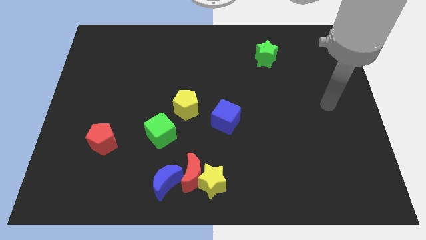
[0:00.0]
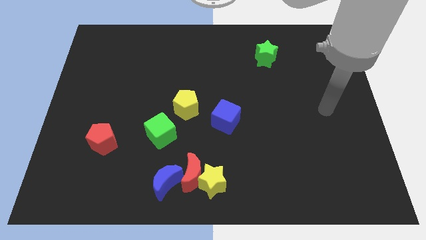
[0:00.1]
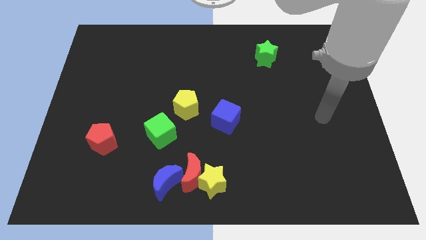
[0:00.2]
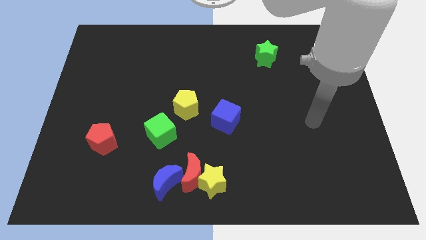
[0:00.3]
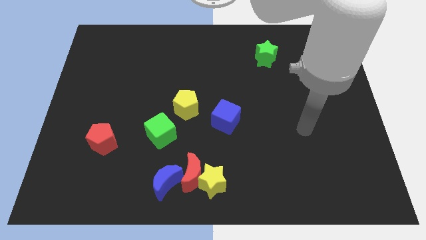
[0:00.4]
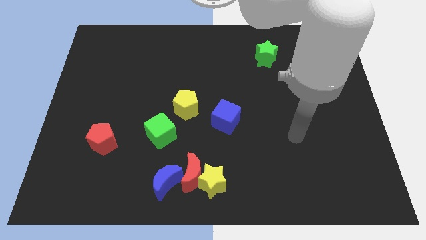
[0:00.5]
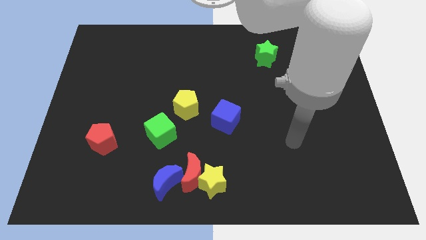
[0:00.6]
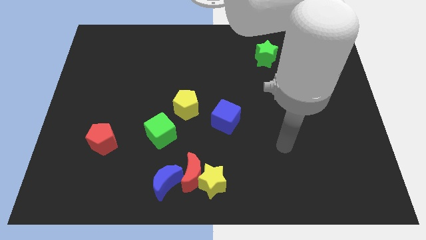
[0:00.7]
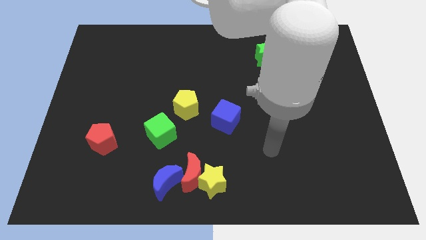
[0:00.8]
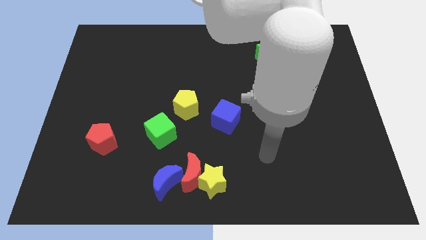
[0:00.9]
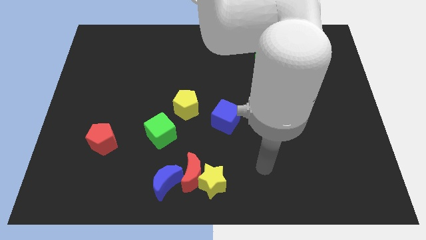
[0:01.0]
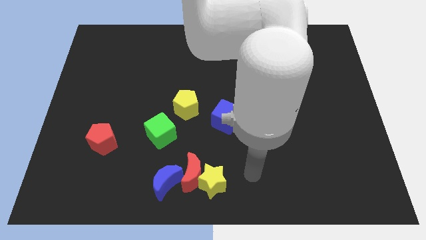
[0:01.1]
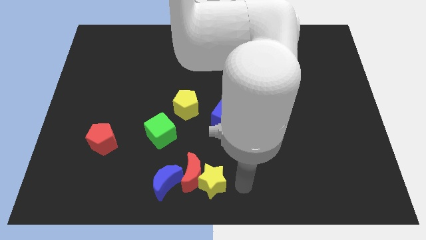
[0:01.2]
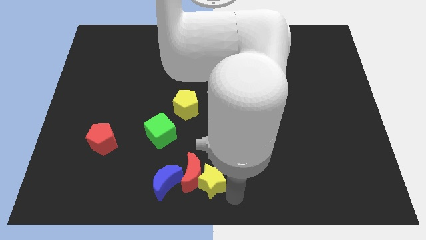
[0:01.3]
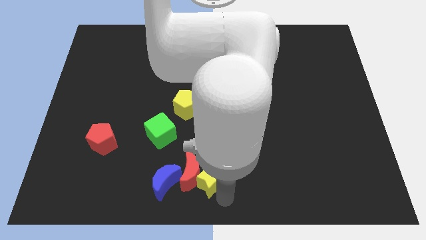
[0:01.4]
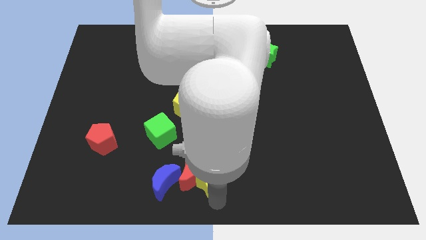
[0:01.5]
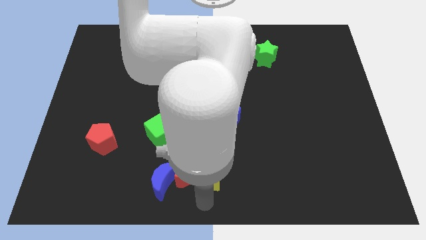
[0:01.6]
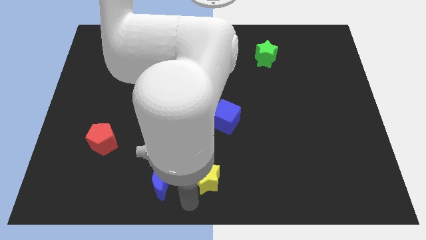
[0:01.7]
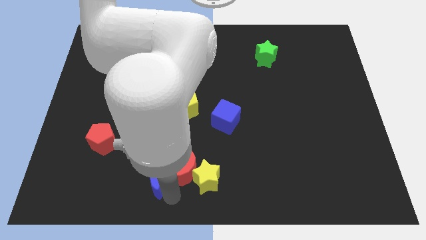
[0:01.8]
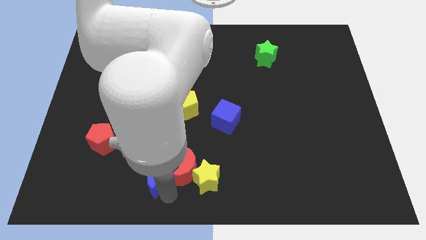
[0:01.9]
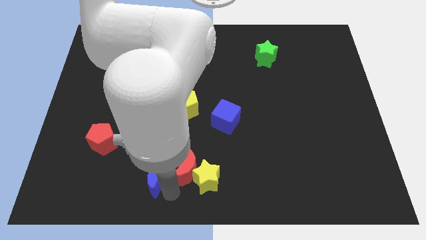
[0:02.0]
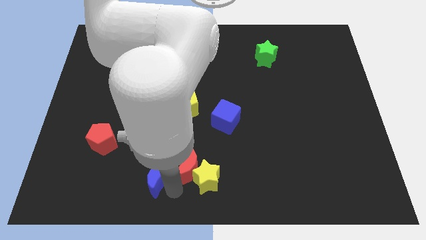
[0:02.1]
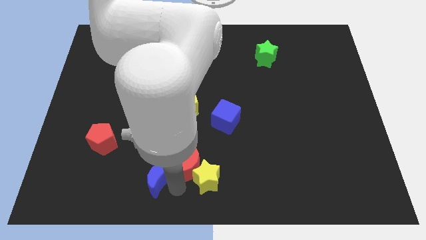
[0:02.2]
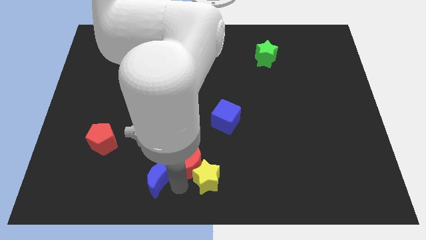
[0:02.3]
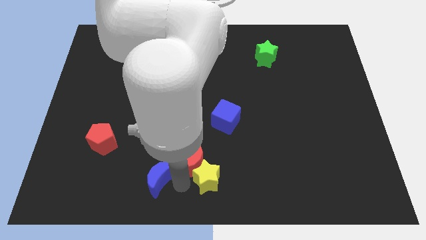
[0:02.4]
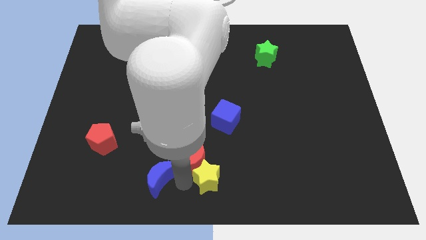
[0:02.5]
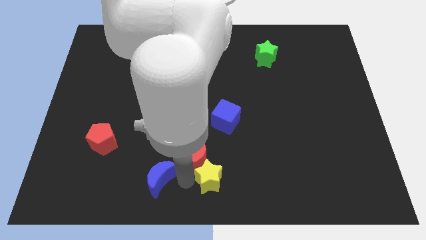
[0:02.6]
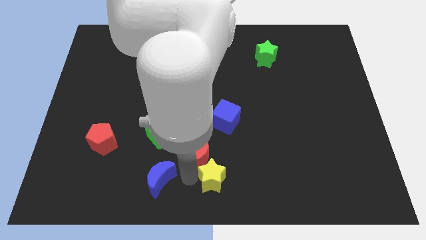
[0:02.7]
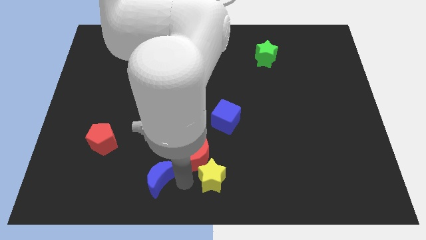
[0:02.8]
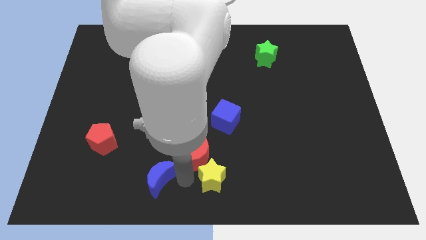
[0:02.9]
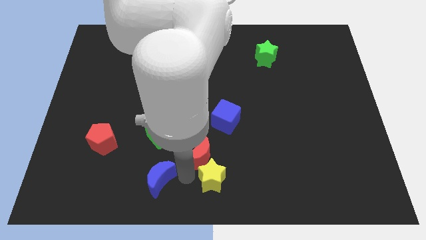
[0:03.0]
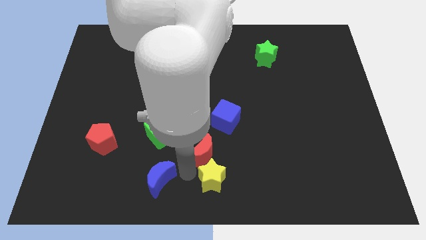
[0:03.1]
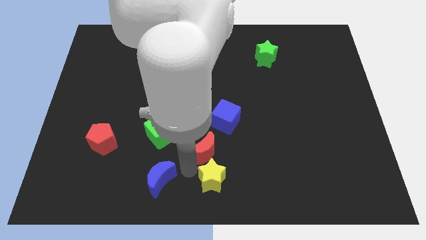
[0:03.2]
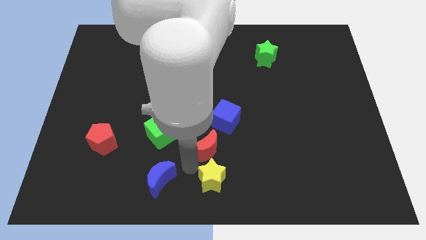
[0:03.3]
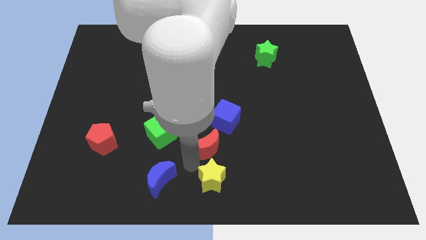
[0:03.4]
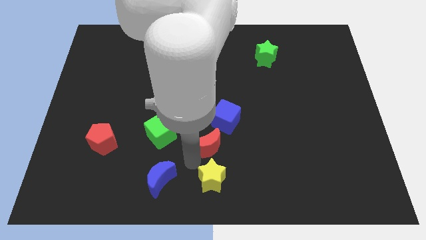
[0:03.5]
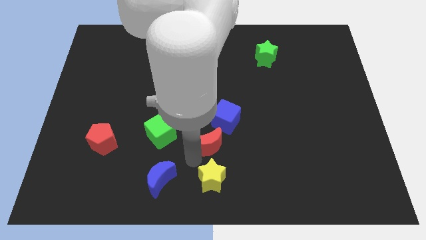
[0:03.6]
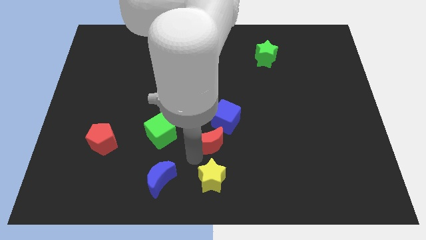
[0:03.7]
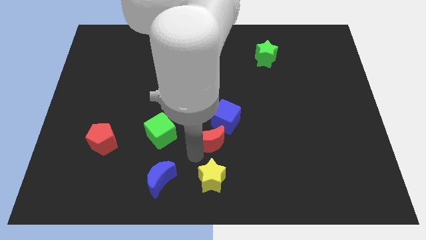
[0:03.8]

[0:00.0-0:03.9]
separate the red moon from the yellow star and blue moon

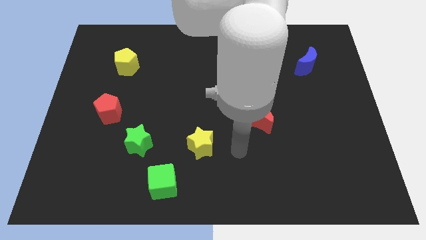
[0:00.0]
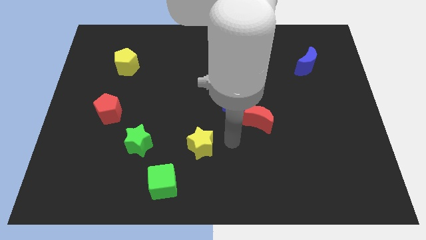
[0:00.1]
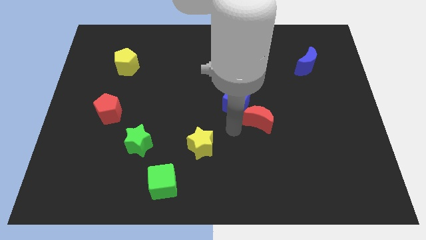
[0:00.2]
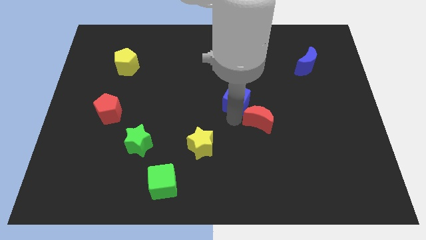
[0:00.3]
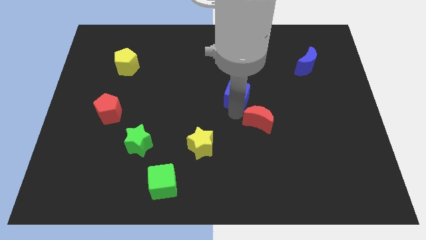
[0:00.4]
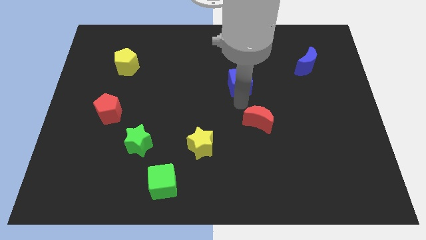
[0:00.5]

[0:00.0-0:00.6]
pull the red moon apart from the blue cube

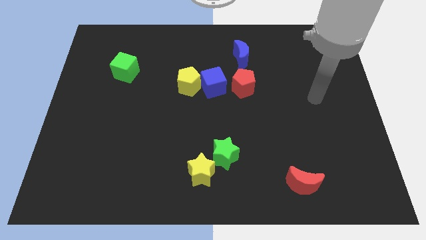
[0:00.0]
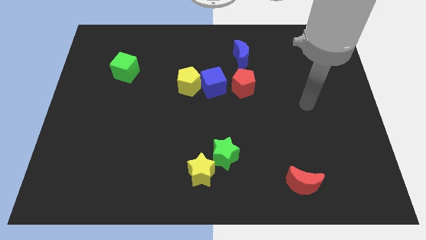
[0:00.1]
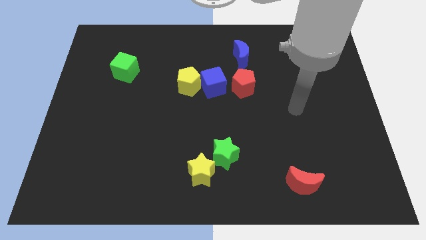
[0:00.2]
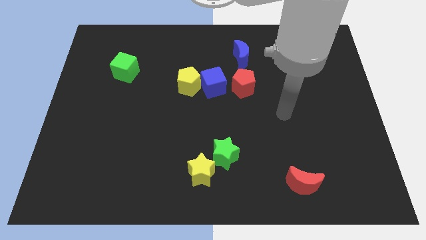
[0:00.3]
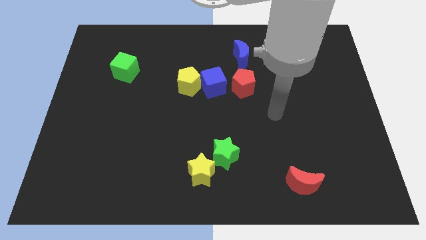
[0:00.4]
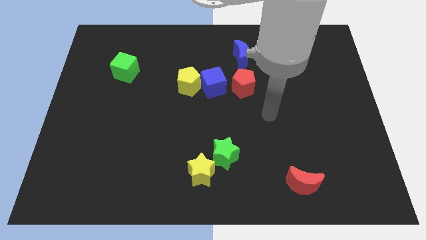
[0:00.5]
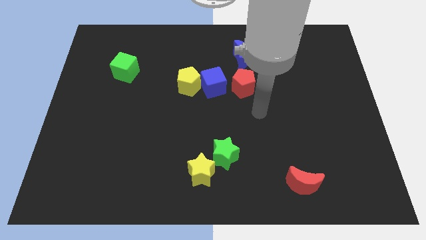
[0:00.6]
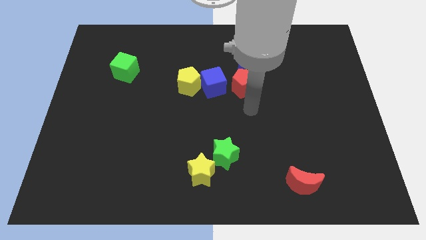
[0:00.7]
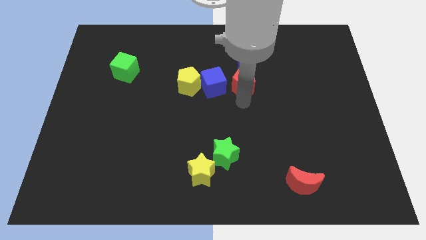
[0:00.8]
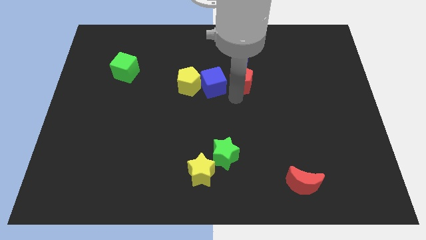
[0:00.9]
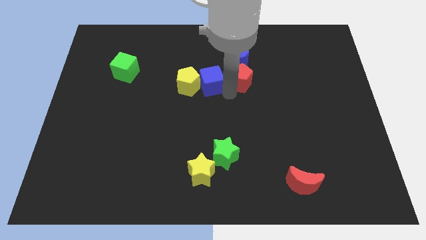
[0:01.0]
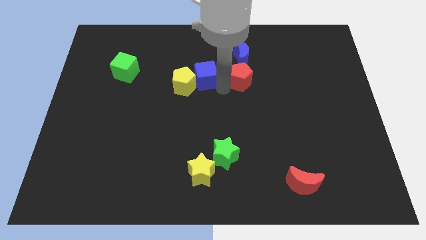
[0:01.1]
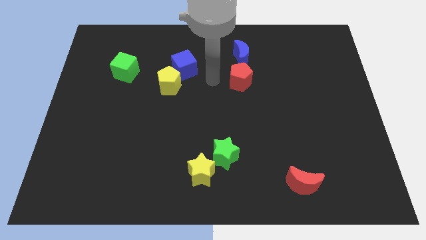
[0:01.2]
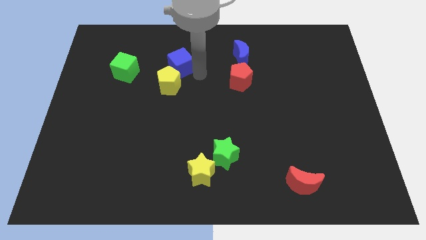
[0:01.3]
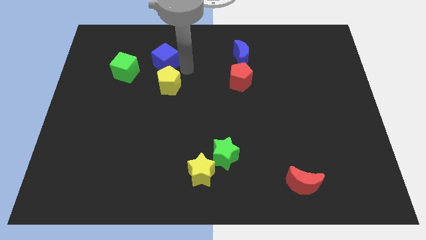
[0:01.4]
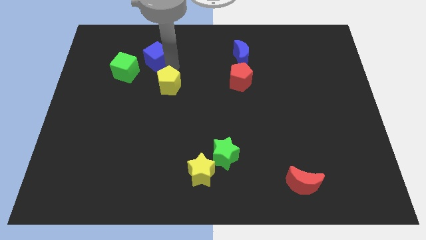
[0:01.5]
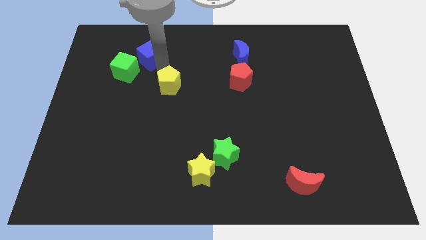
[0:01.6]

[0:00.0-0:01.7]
move the yellow pentagon away from the blue cube

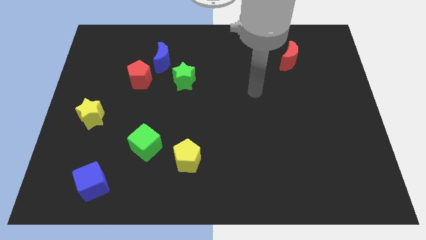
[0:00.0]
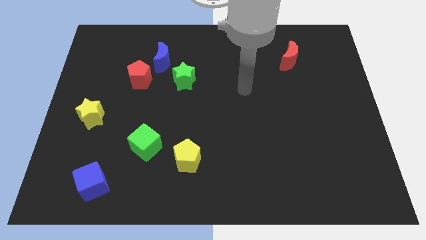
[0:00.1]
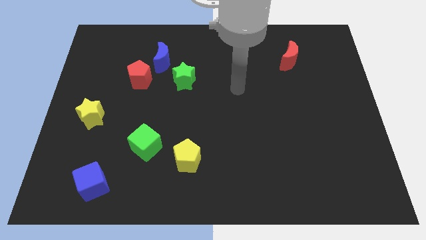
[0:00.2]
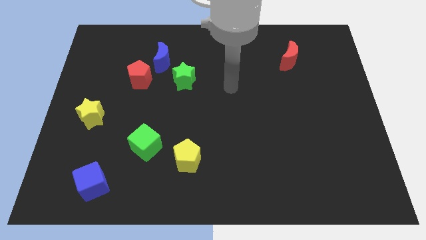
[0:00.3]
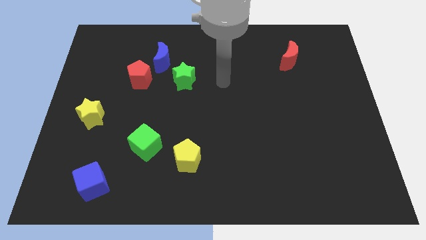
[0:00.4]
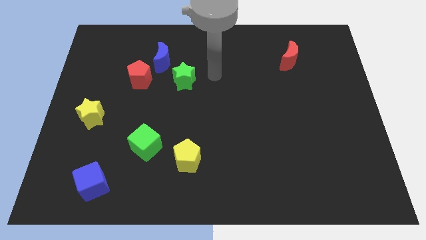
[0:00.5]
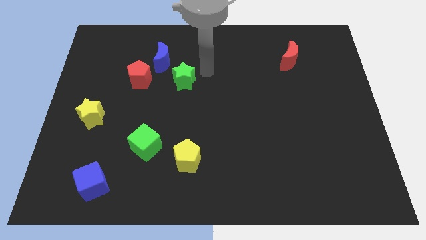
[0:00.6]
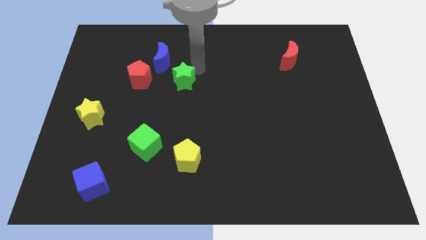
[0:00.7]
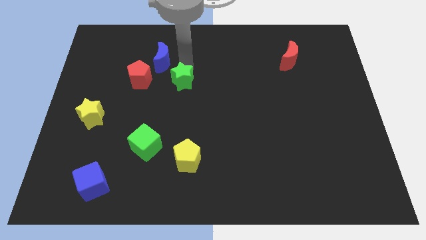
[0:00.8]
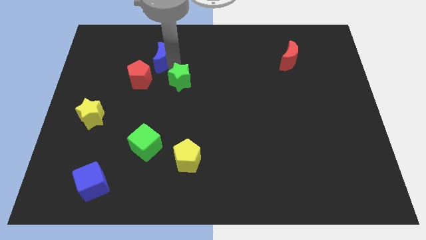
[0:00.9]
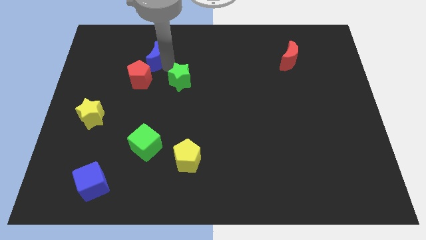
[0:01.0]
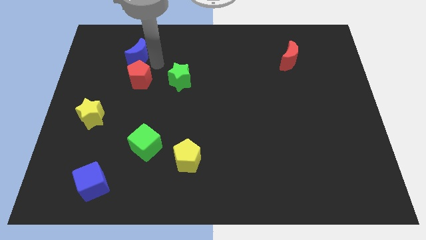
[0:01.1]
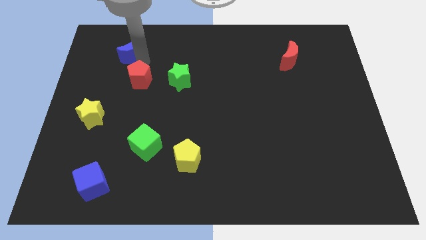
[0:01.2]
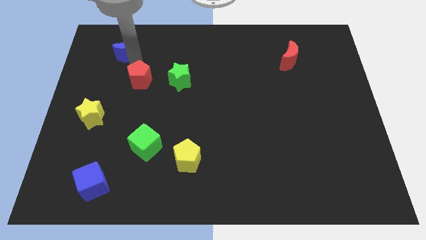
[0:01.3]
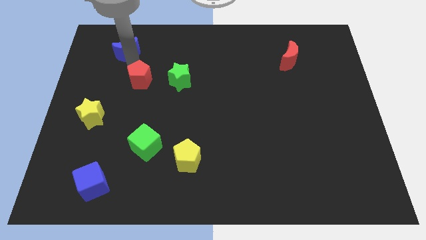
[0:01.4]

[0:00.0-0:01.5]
move the red pentagon away from the blue moon

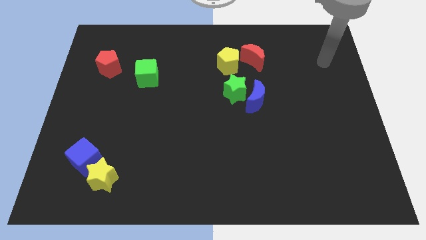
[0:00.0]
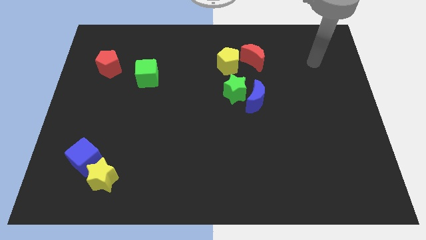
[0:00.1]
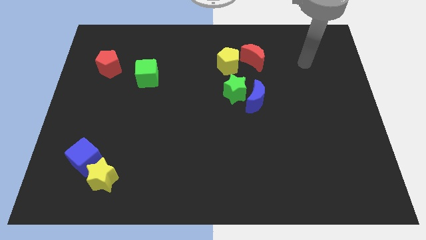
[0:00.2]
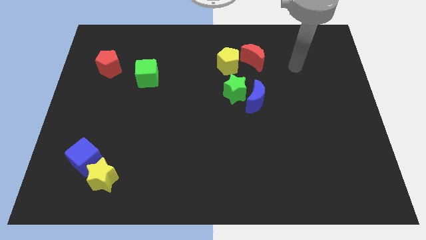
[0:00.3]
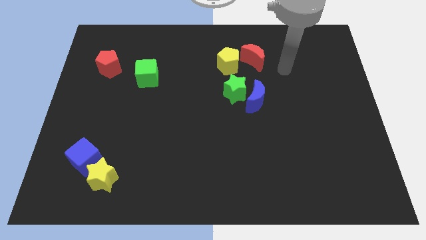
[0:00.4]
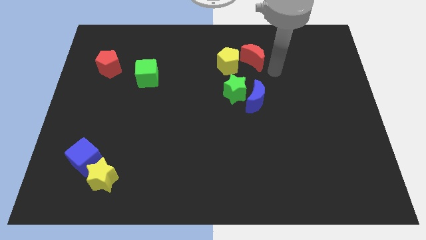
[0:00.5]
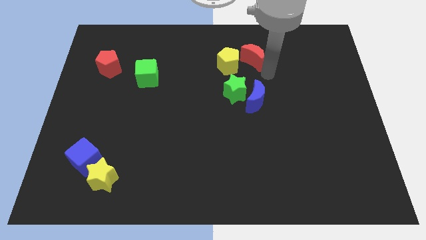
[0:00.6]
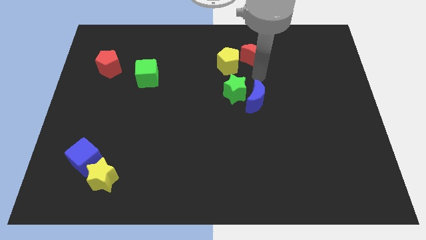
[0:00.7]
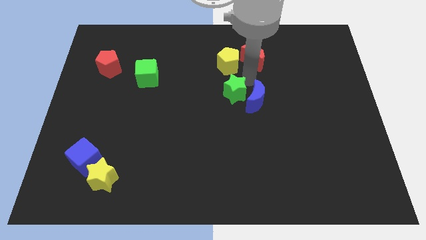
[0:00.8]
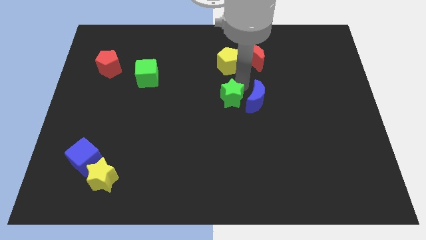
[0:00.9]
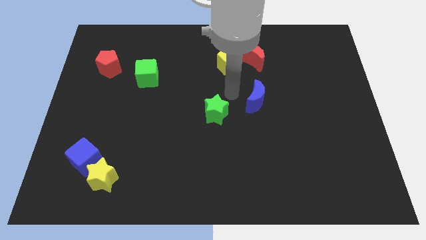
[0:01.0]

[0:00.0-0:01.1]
pull the blue moon apart from the green star

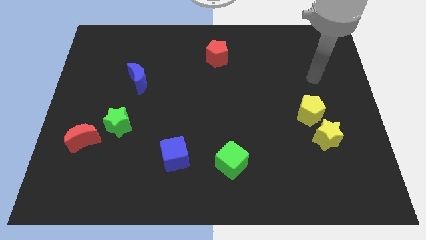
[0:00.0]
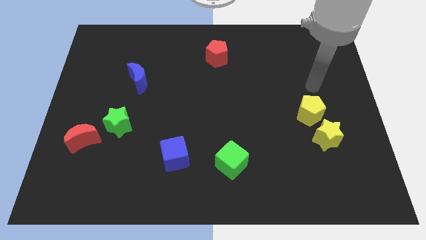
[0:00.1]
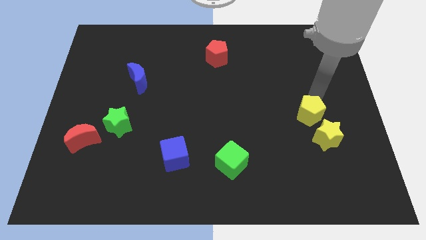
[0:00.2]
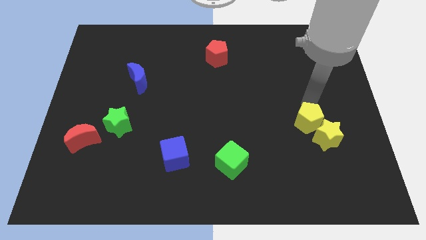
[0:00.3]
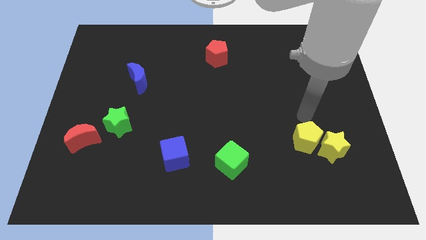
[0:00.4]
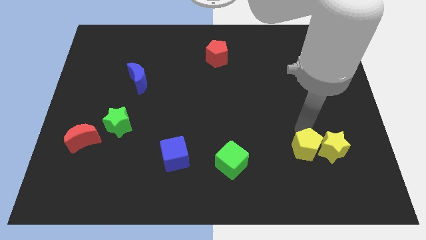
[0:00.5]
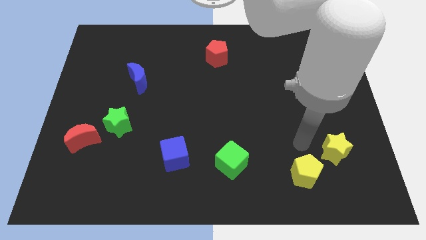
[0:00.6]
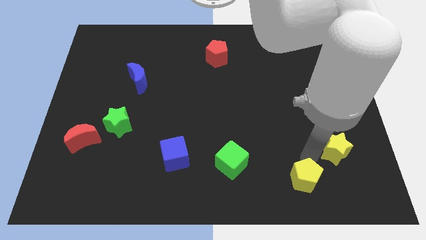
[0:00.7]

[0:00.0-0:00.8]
move the yellow star away from the yellow pentagon
